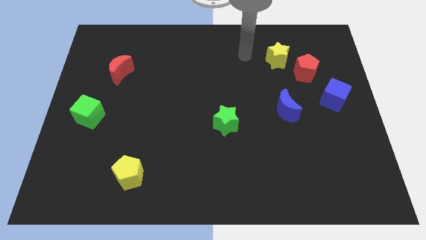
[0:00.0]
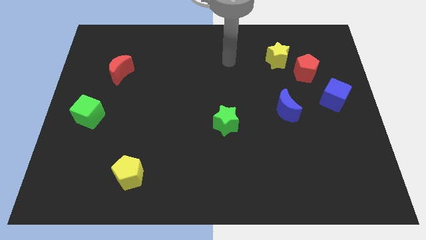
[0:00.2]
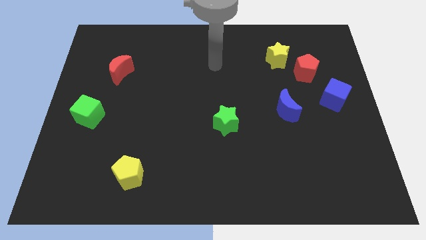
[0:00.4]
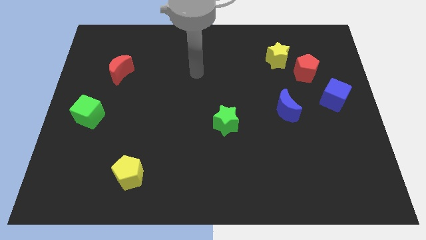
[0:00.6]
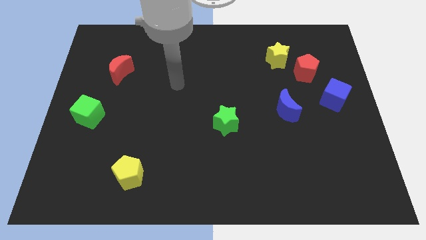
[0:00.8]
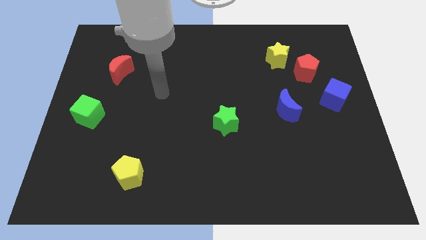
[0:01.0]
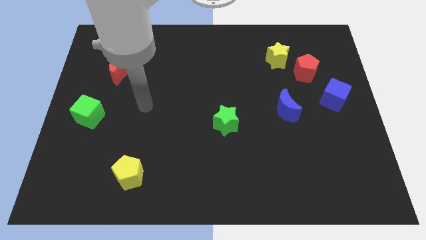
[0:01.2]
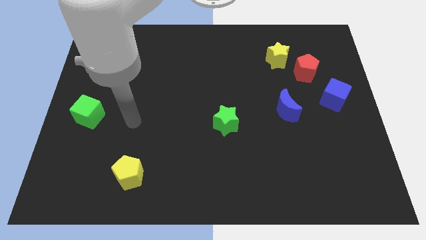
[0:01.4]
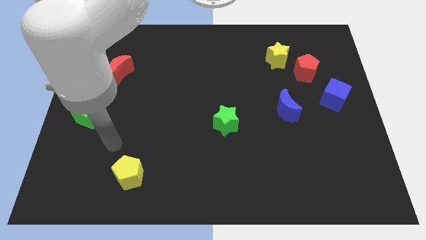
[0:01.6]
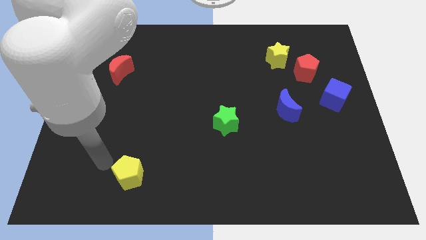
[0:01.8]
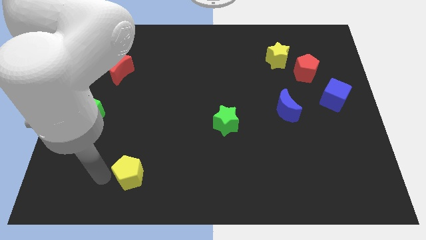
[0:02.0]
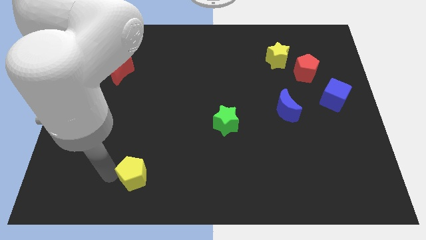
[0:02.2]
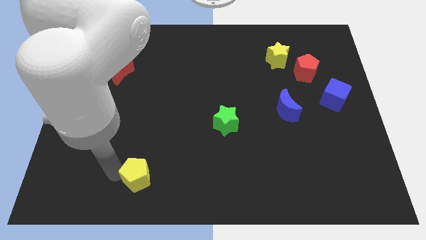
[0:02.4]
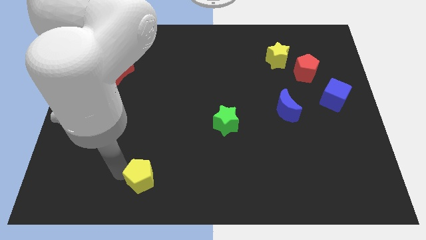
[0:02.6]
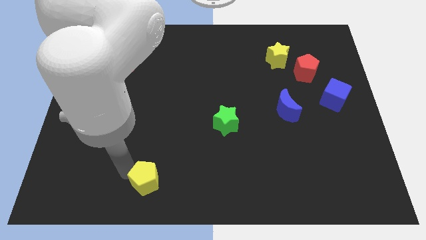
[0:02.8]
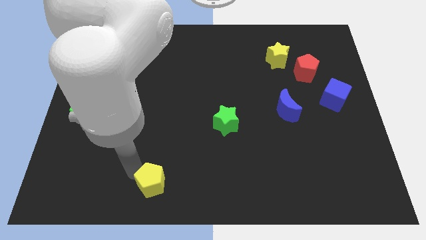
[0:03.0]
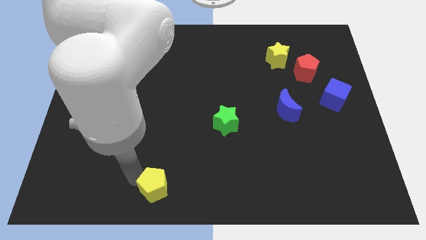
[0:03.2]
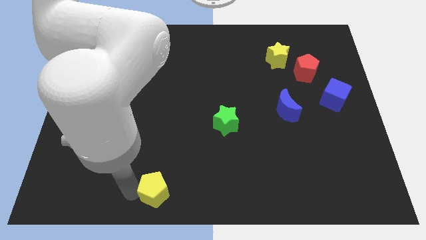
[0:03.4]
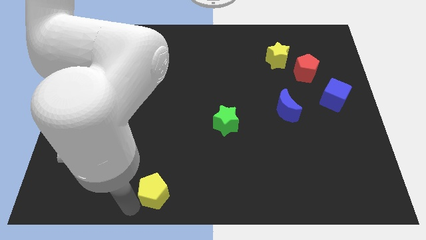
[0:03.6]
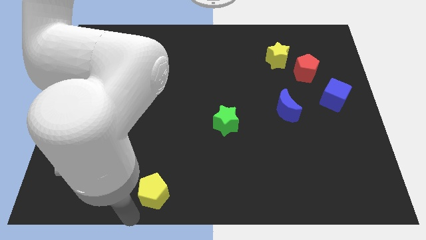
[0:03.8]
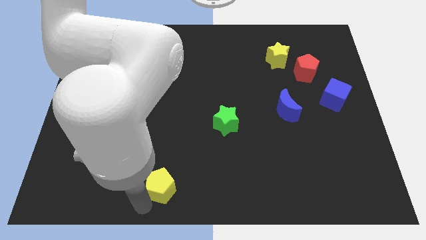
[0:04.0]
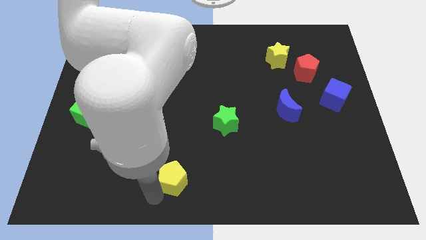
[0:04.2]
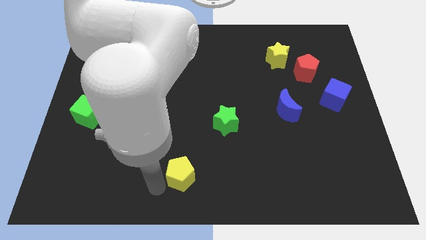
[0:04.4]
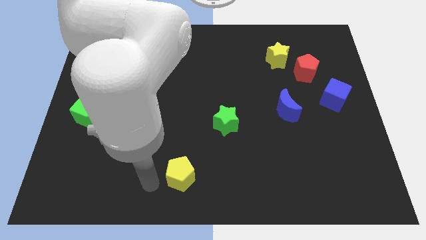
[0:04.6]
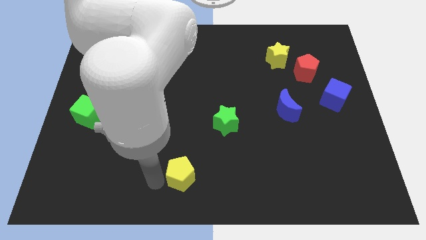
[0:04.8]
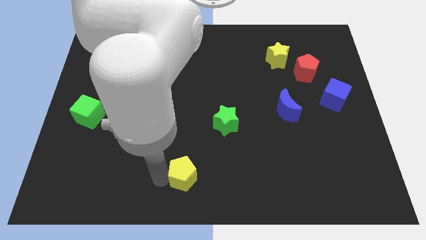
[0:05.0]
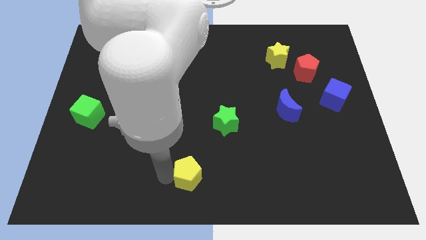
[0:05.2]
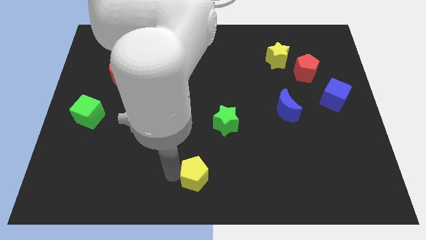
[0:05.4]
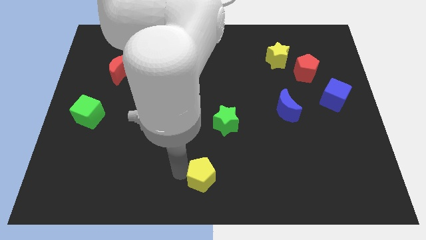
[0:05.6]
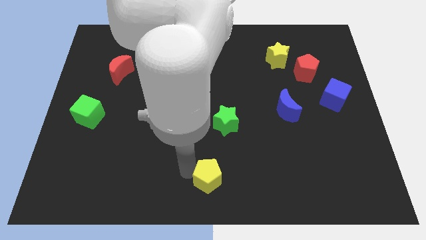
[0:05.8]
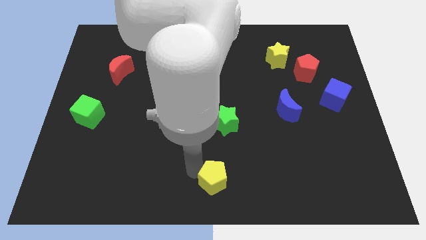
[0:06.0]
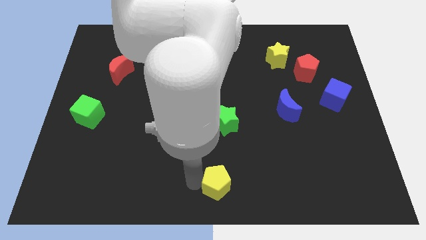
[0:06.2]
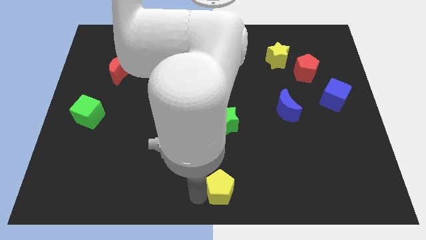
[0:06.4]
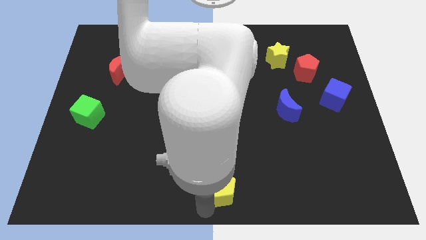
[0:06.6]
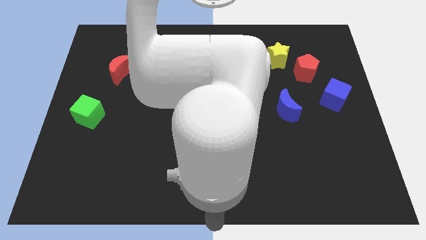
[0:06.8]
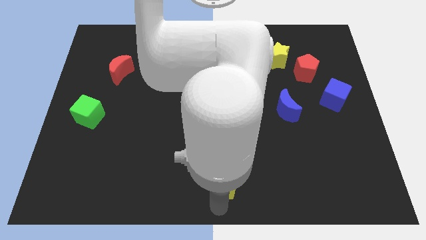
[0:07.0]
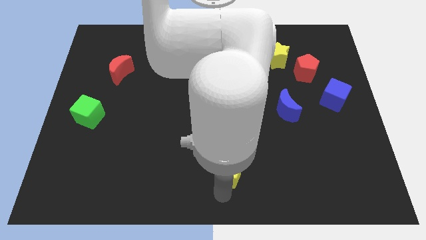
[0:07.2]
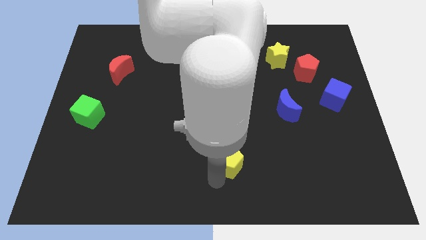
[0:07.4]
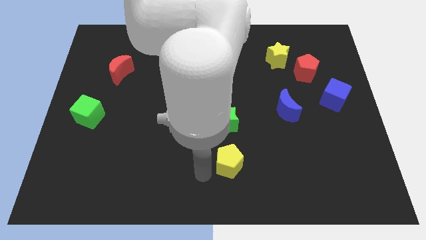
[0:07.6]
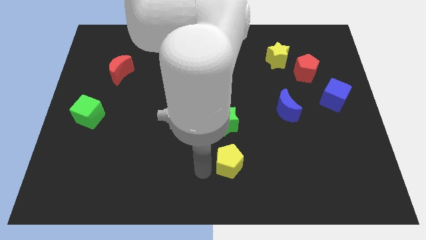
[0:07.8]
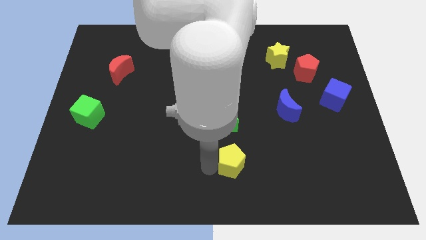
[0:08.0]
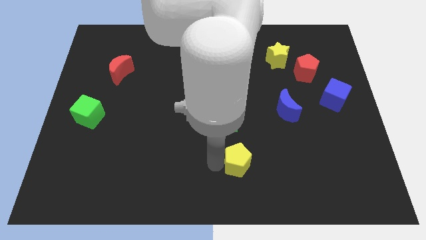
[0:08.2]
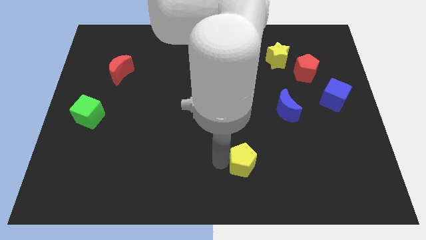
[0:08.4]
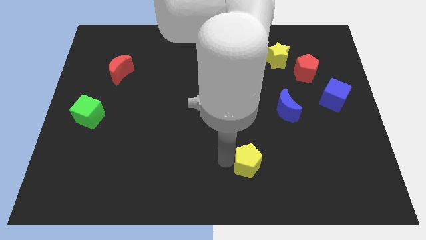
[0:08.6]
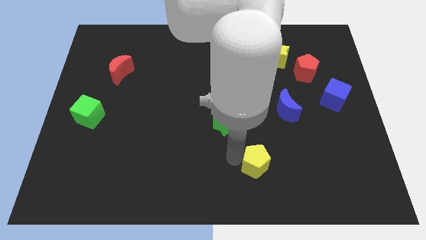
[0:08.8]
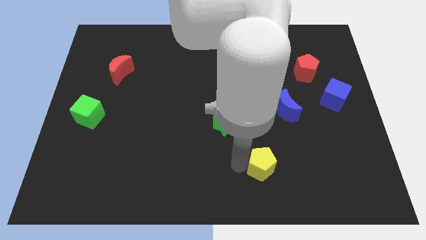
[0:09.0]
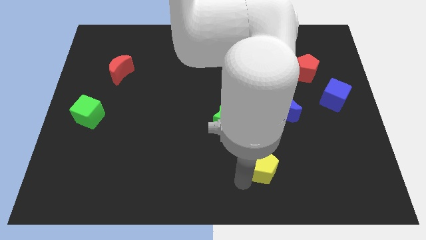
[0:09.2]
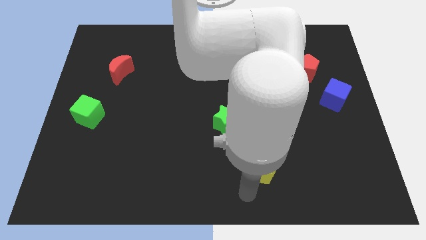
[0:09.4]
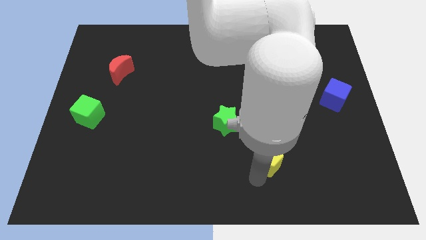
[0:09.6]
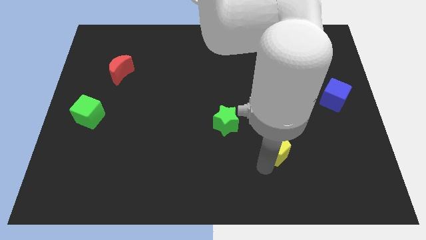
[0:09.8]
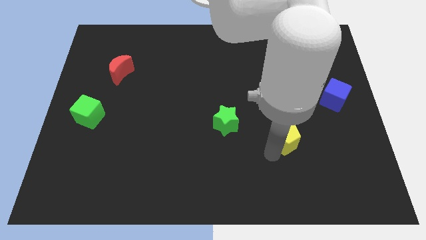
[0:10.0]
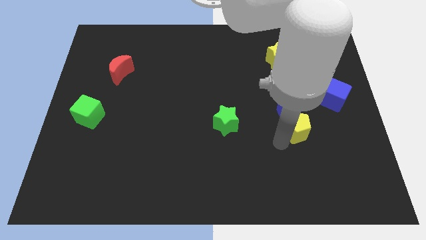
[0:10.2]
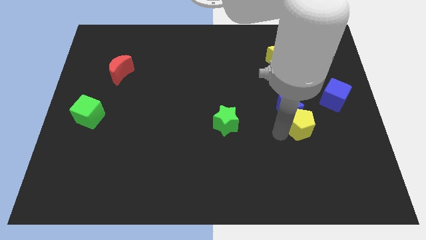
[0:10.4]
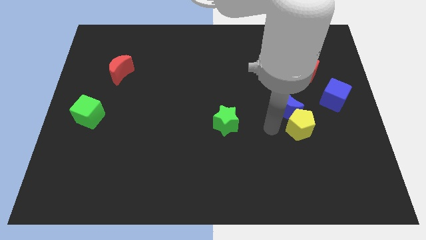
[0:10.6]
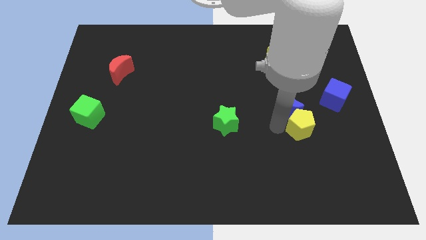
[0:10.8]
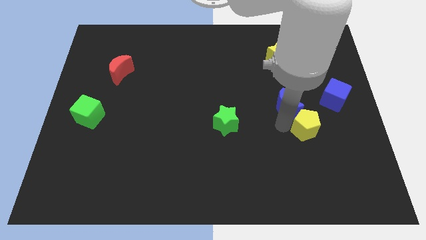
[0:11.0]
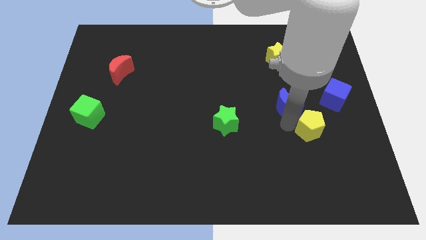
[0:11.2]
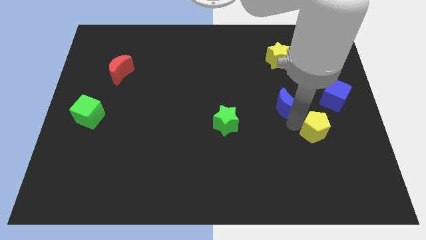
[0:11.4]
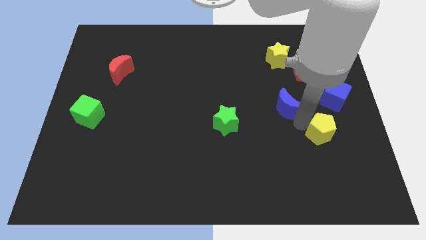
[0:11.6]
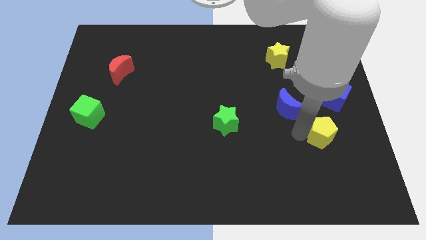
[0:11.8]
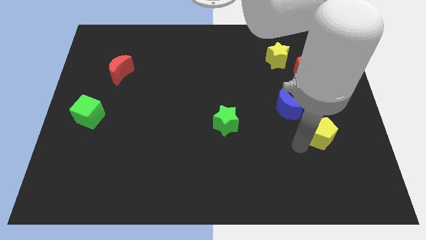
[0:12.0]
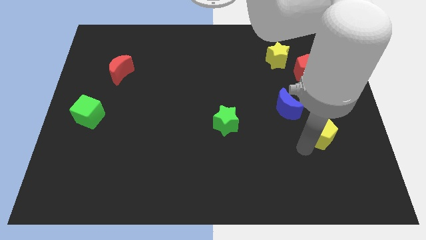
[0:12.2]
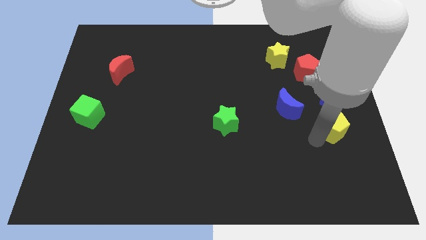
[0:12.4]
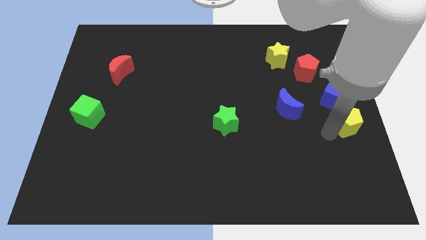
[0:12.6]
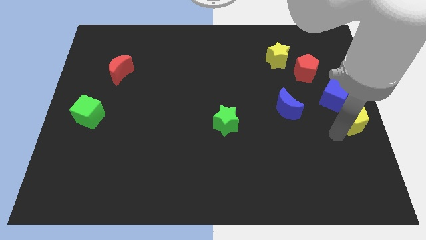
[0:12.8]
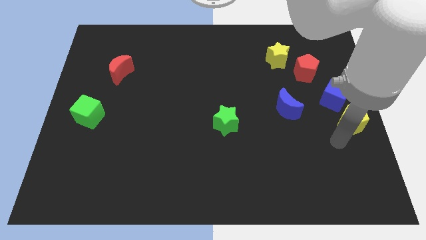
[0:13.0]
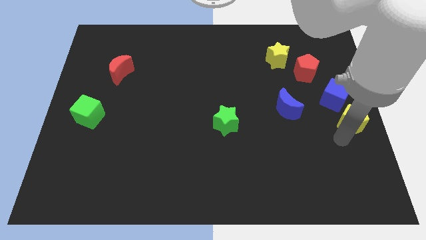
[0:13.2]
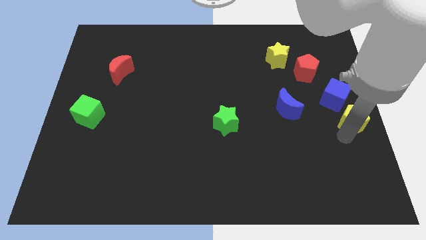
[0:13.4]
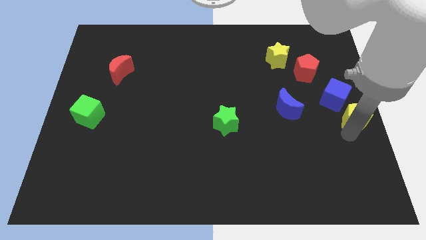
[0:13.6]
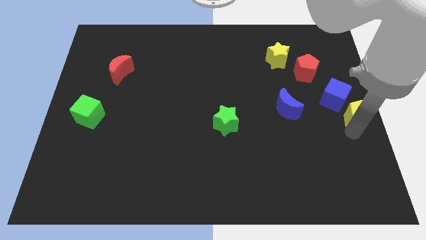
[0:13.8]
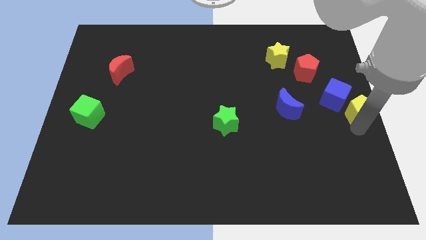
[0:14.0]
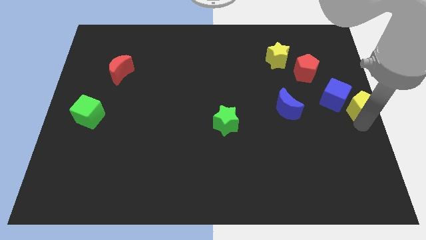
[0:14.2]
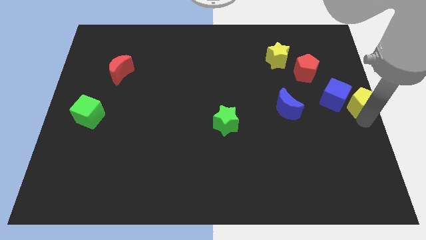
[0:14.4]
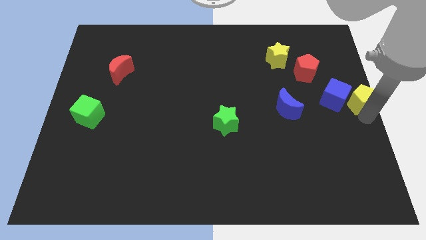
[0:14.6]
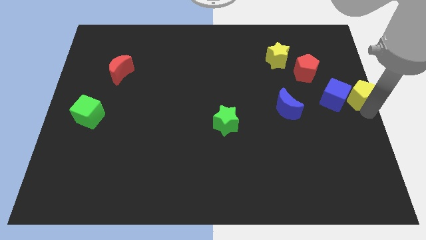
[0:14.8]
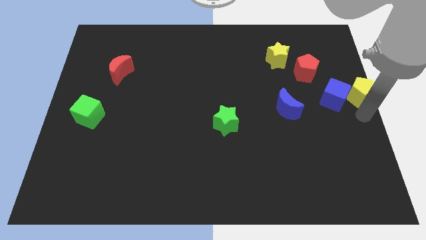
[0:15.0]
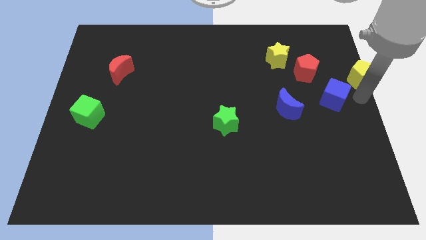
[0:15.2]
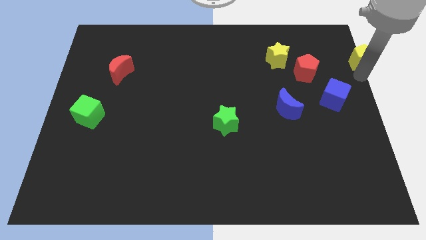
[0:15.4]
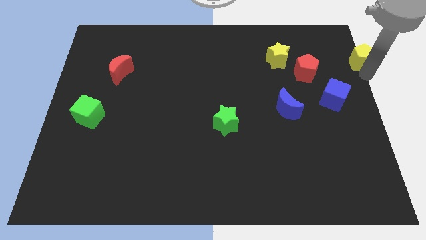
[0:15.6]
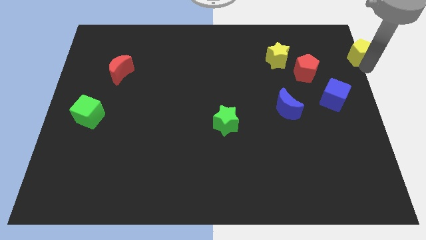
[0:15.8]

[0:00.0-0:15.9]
slide the yellow pentagon to the top right of the board
